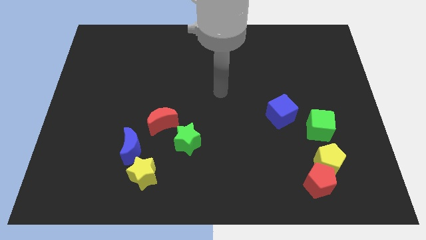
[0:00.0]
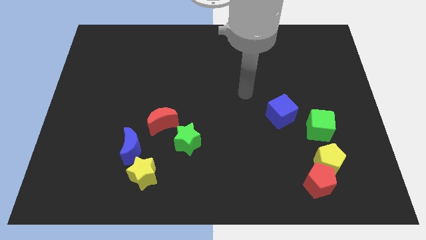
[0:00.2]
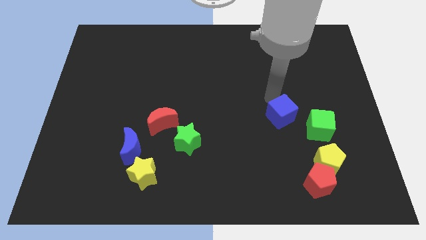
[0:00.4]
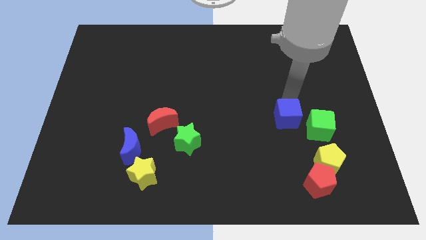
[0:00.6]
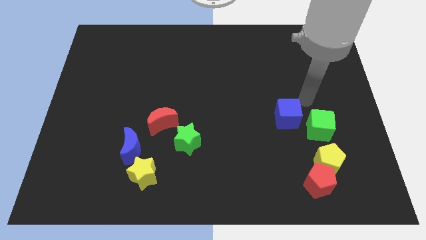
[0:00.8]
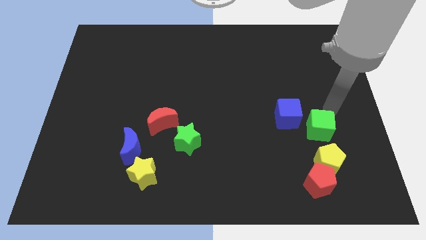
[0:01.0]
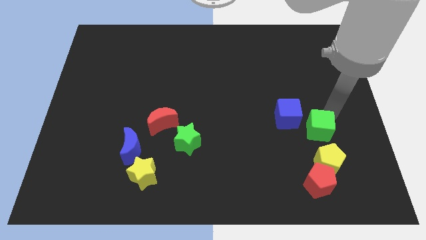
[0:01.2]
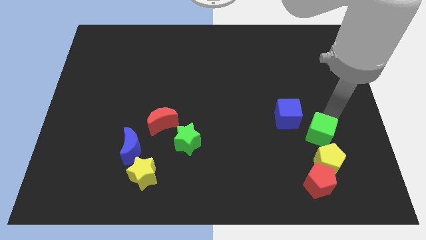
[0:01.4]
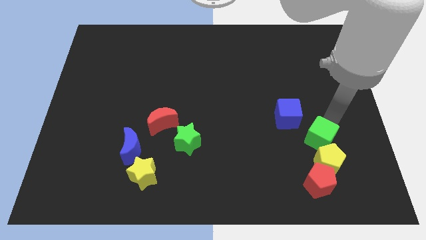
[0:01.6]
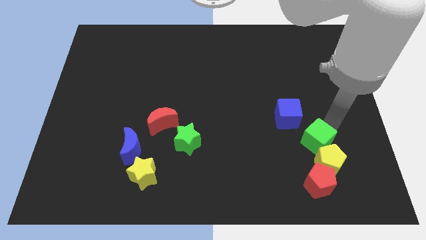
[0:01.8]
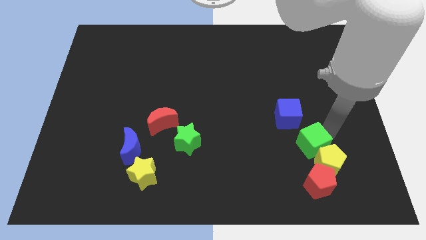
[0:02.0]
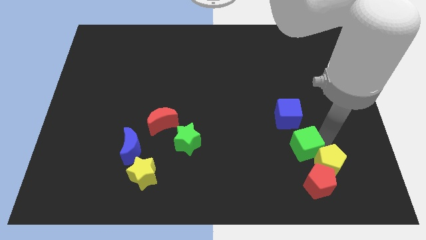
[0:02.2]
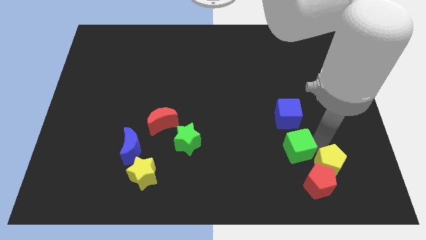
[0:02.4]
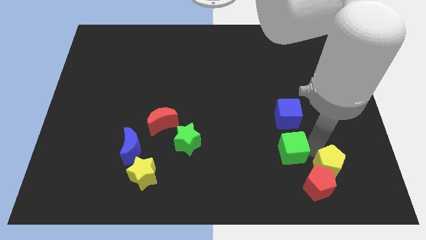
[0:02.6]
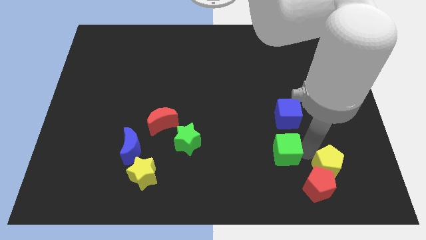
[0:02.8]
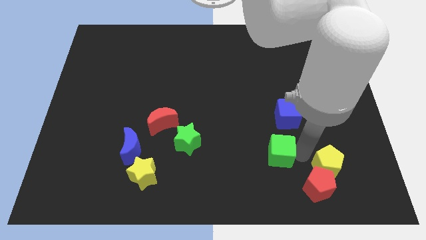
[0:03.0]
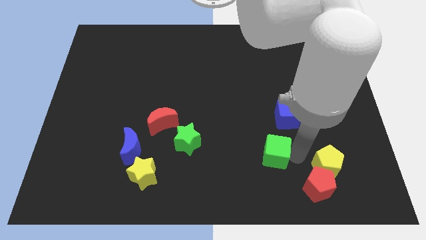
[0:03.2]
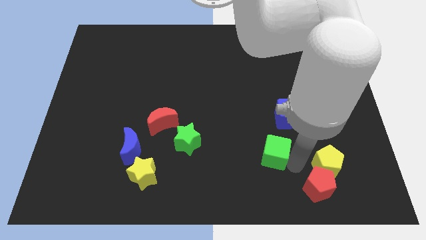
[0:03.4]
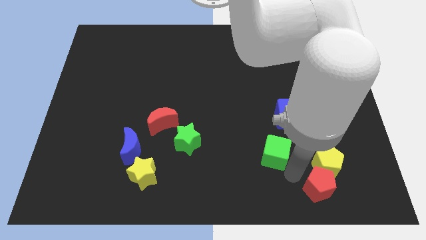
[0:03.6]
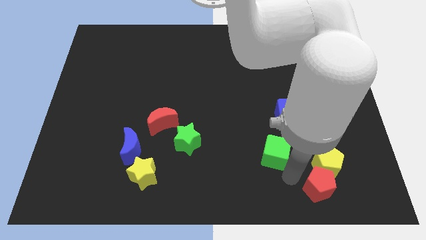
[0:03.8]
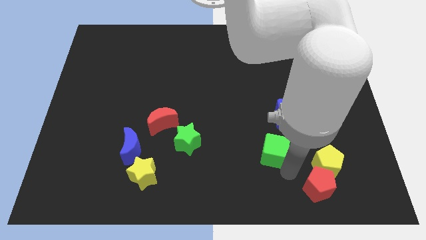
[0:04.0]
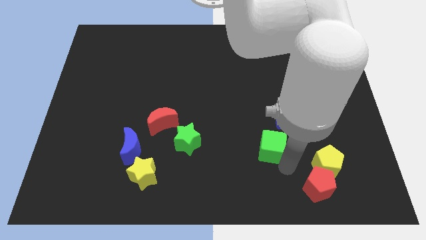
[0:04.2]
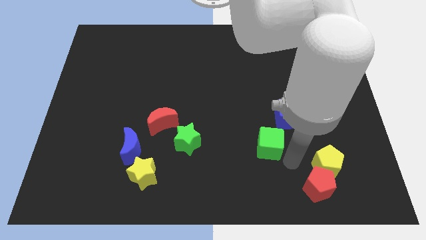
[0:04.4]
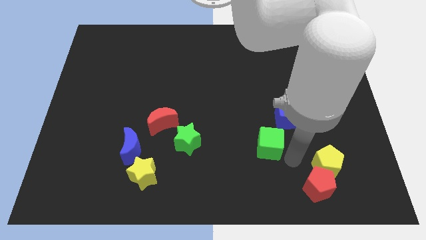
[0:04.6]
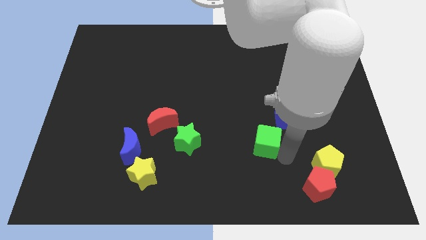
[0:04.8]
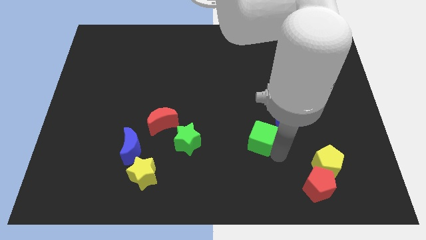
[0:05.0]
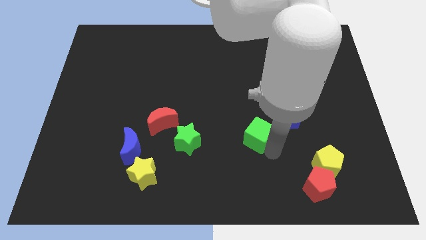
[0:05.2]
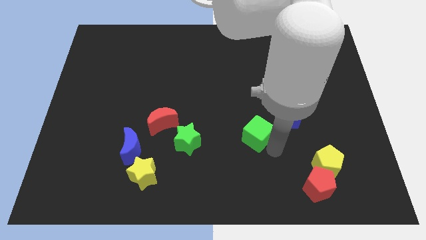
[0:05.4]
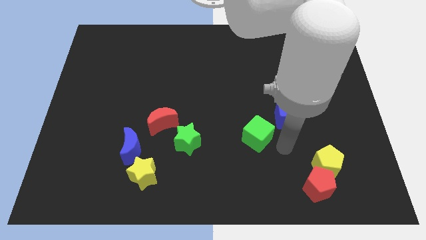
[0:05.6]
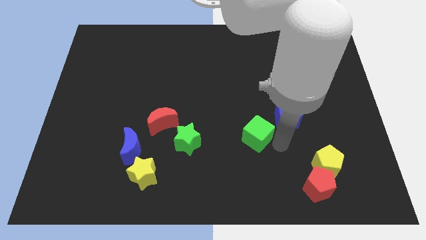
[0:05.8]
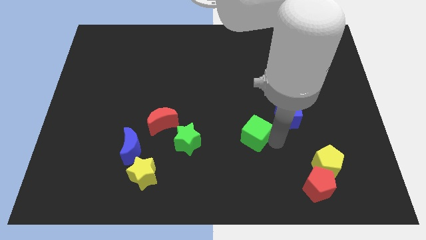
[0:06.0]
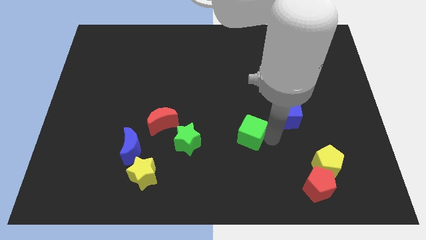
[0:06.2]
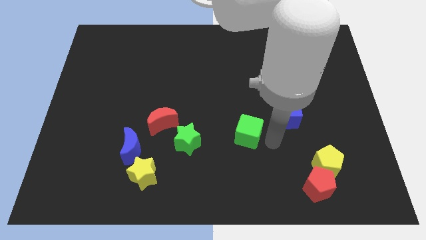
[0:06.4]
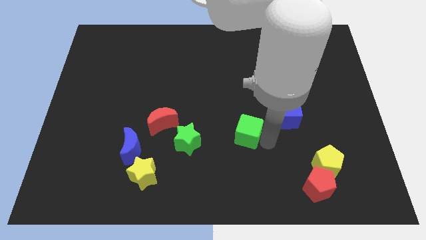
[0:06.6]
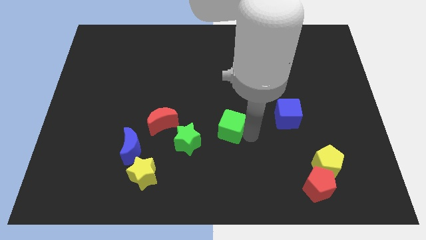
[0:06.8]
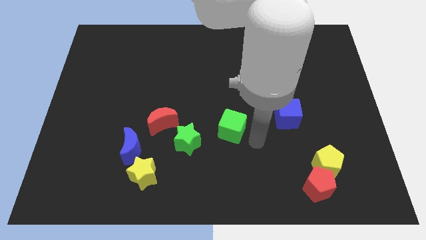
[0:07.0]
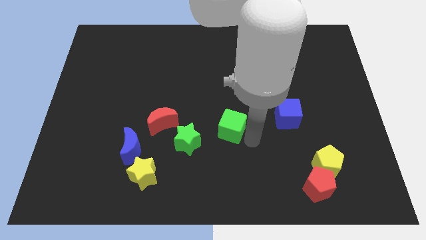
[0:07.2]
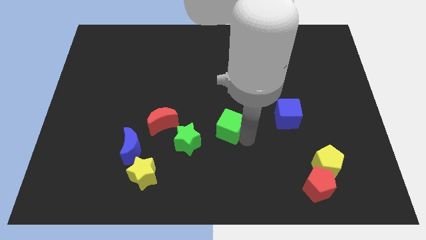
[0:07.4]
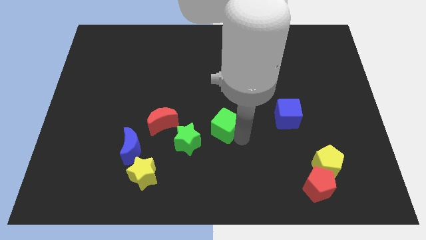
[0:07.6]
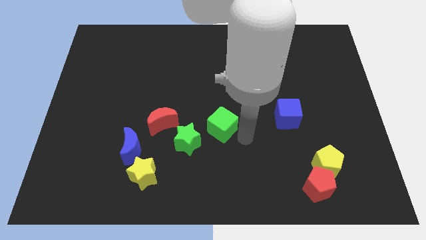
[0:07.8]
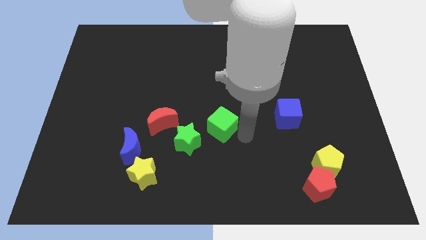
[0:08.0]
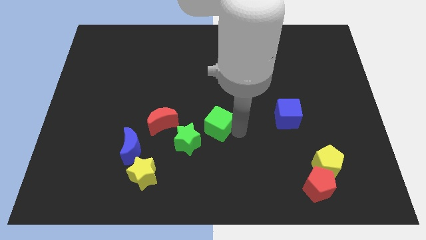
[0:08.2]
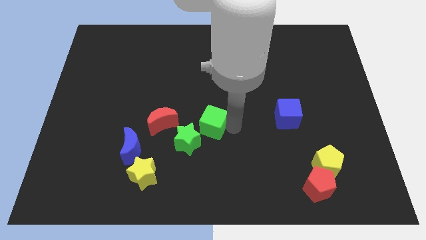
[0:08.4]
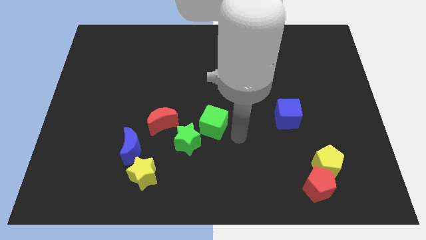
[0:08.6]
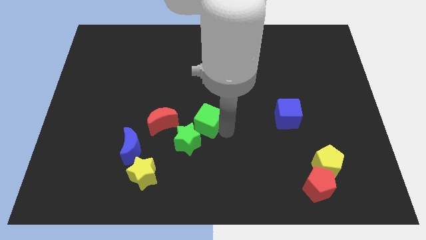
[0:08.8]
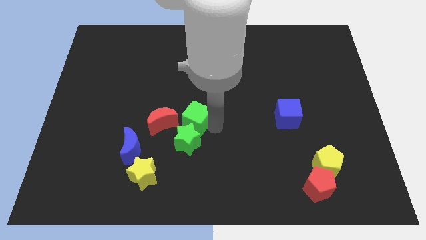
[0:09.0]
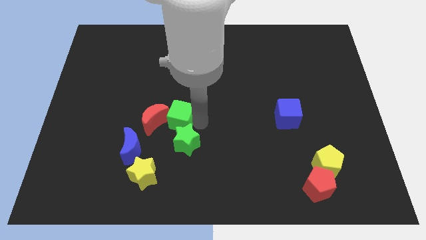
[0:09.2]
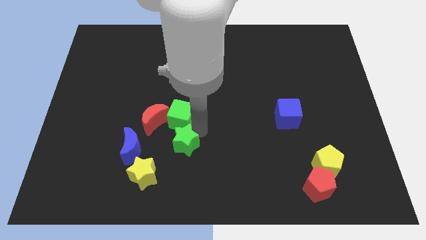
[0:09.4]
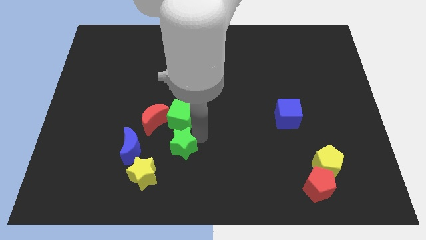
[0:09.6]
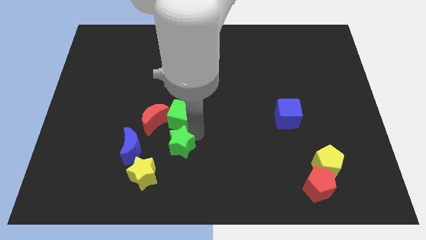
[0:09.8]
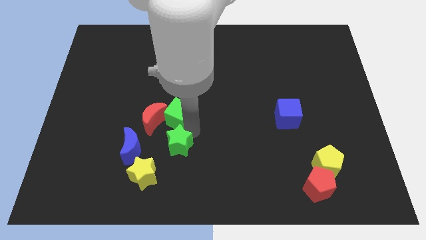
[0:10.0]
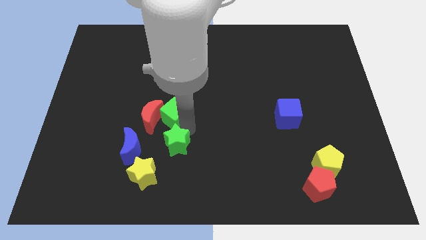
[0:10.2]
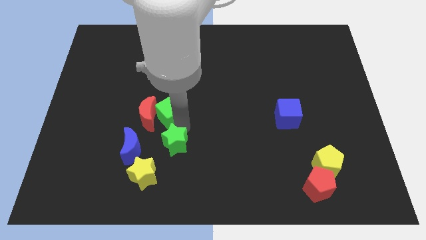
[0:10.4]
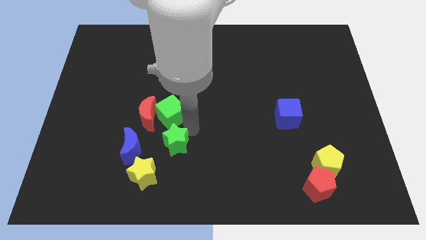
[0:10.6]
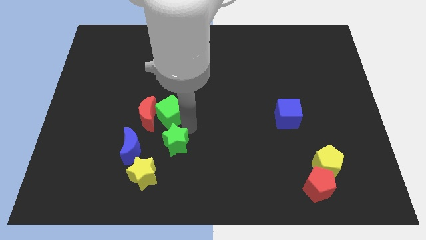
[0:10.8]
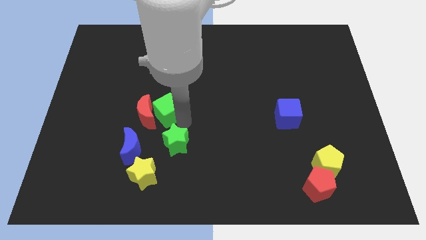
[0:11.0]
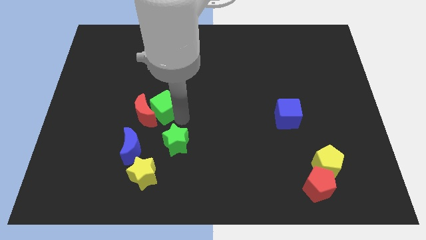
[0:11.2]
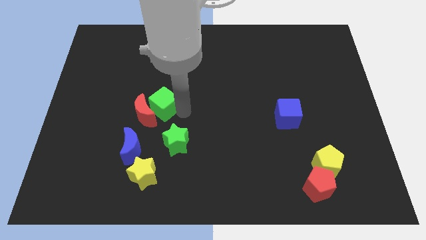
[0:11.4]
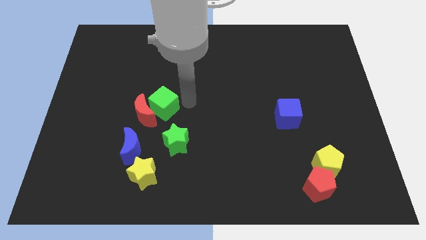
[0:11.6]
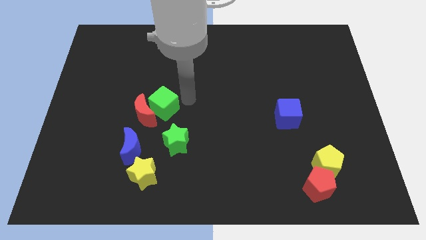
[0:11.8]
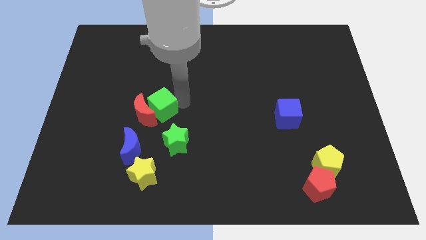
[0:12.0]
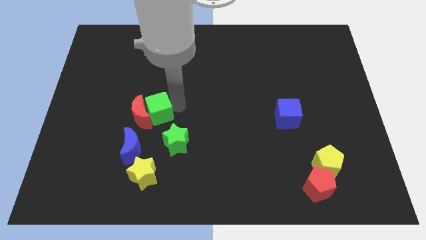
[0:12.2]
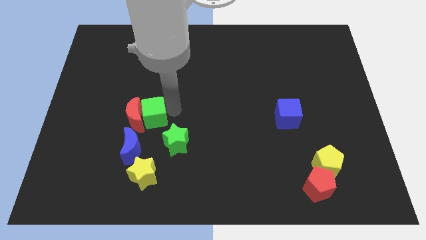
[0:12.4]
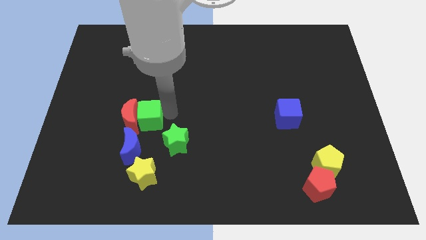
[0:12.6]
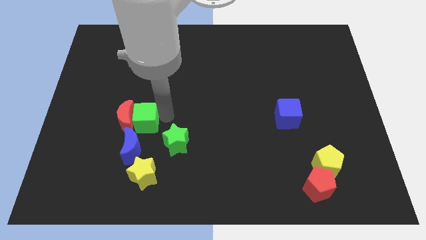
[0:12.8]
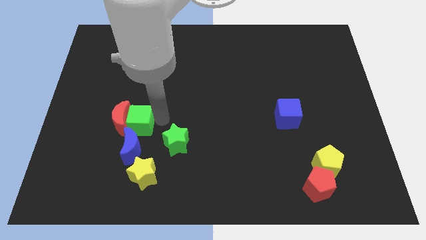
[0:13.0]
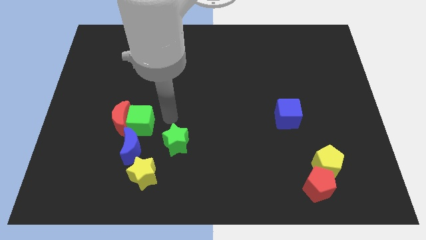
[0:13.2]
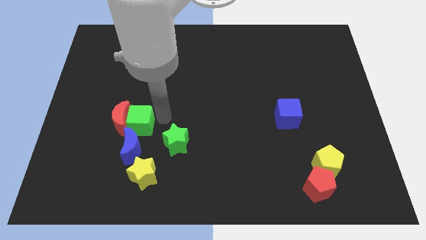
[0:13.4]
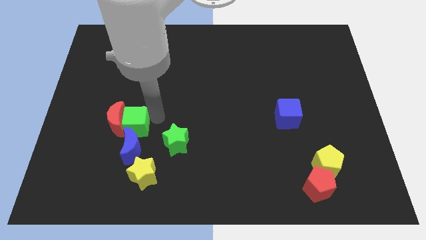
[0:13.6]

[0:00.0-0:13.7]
slide the green cube diagonally up and to the left of the blue moon
